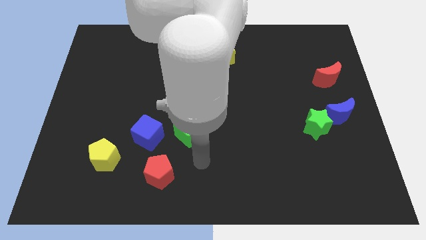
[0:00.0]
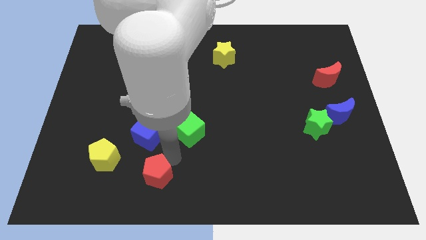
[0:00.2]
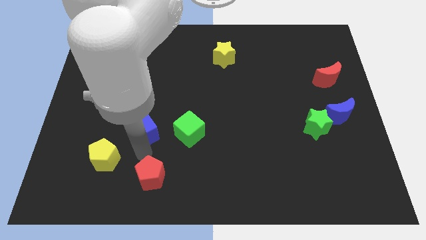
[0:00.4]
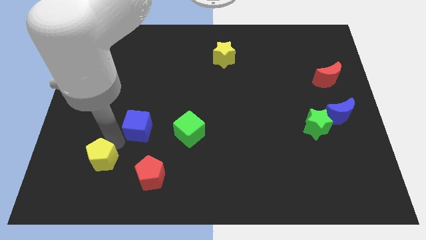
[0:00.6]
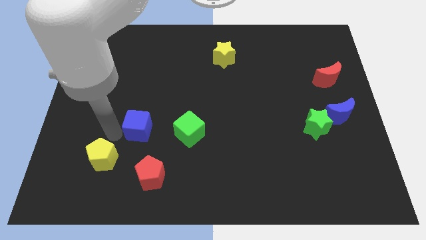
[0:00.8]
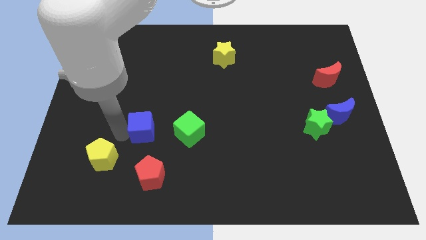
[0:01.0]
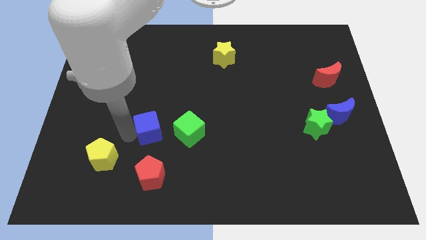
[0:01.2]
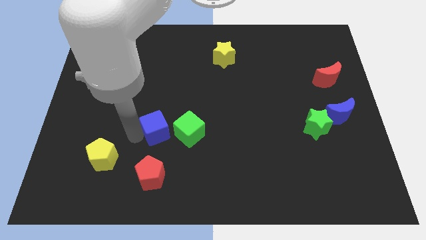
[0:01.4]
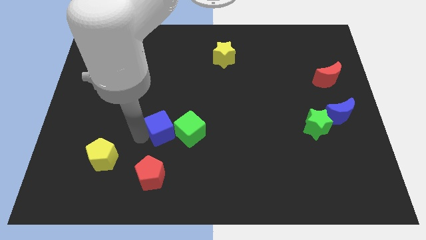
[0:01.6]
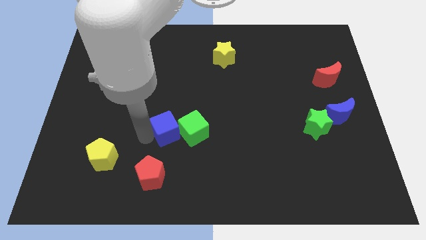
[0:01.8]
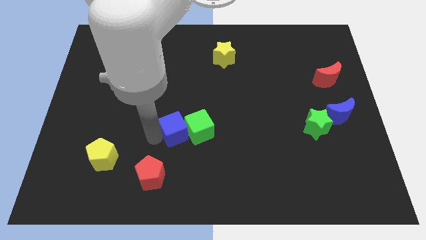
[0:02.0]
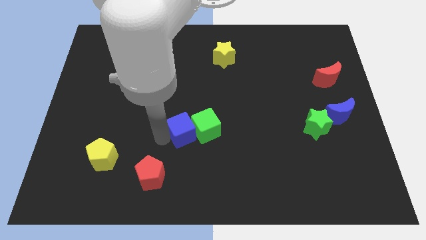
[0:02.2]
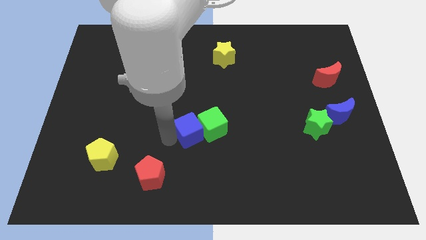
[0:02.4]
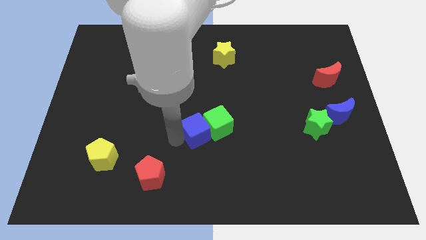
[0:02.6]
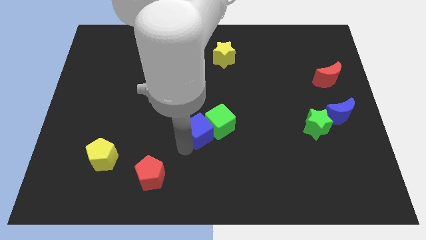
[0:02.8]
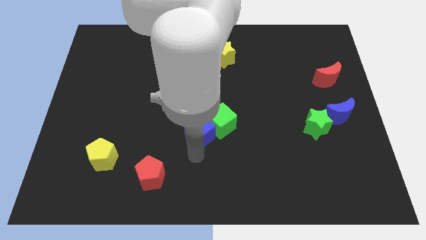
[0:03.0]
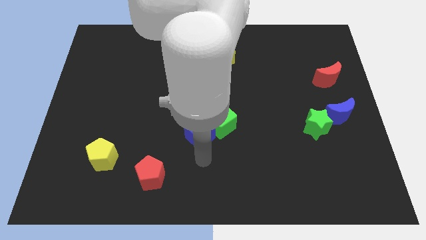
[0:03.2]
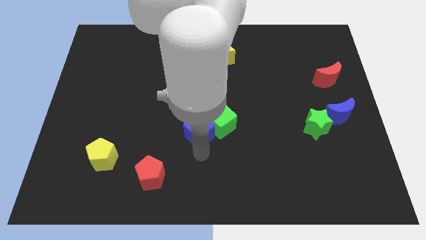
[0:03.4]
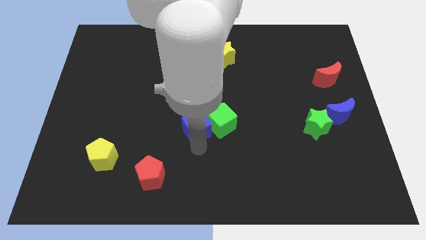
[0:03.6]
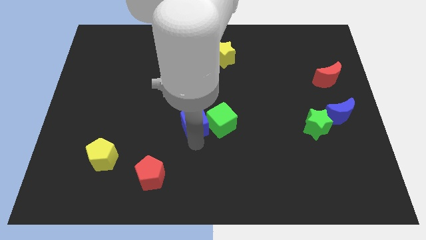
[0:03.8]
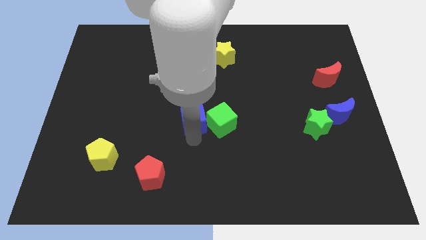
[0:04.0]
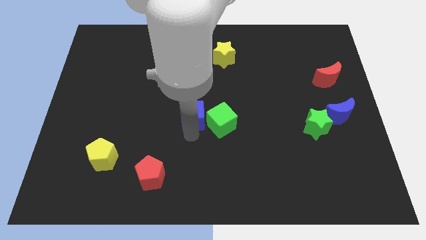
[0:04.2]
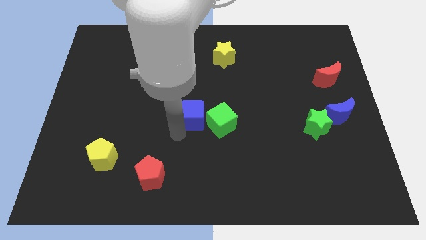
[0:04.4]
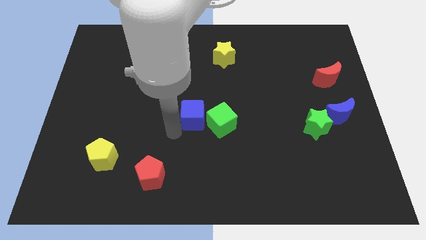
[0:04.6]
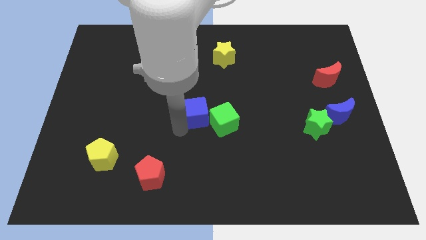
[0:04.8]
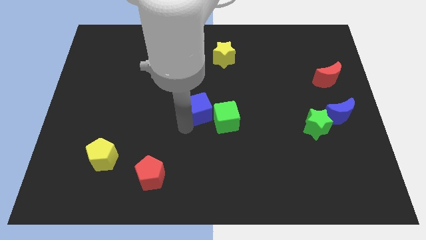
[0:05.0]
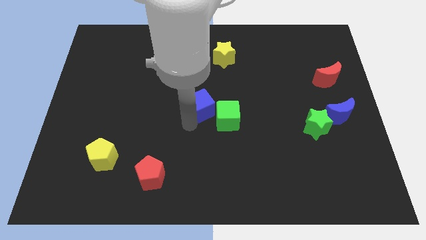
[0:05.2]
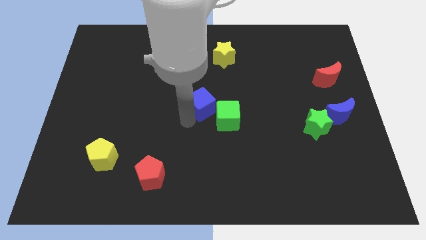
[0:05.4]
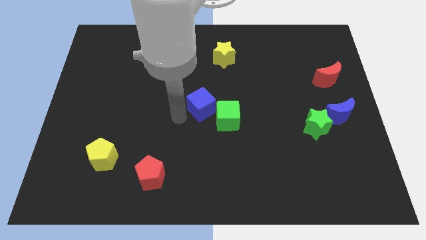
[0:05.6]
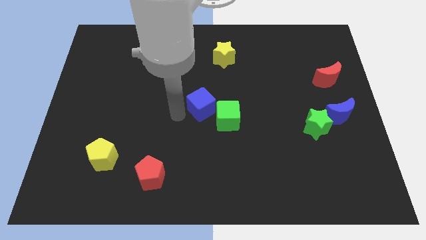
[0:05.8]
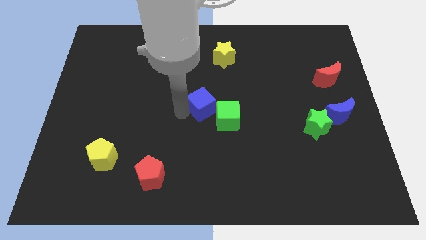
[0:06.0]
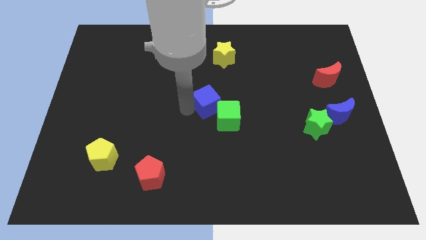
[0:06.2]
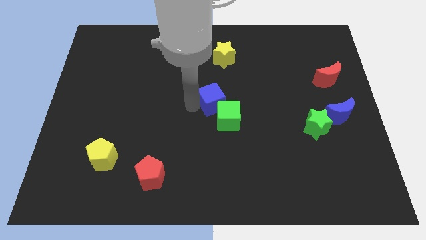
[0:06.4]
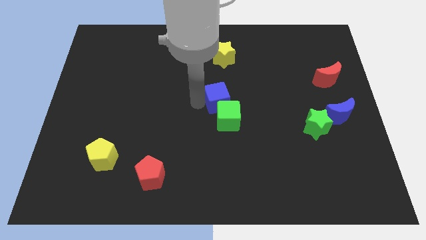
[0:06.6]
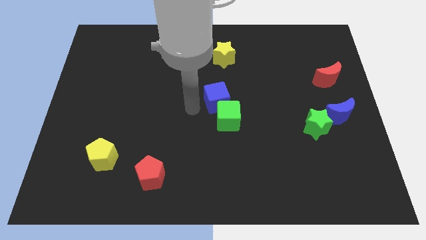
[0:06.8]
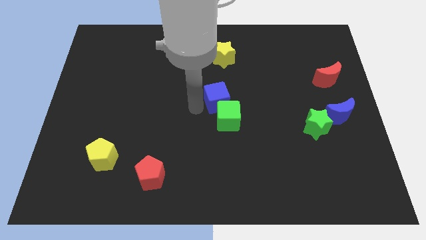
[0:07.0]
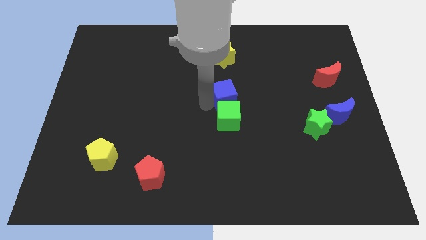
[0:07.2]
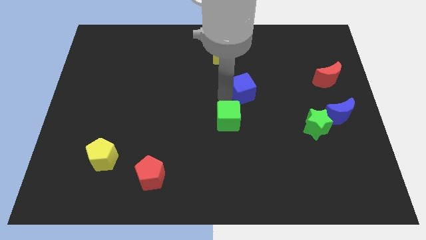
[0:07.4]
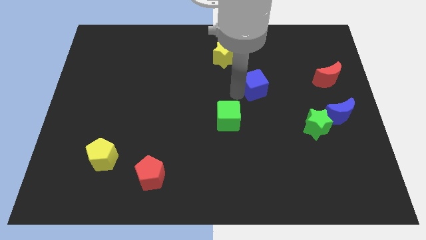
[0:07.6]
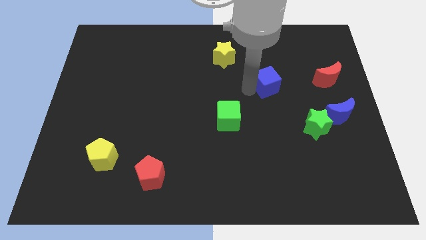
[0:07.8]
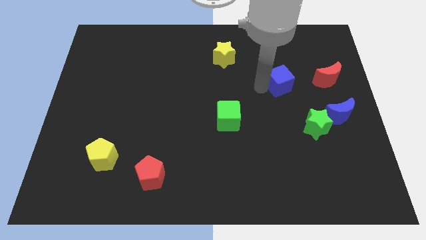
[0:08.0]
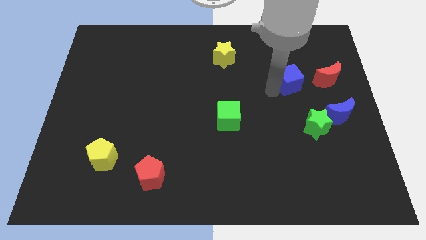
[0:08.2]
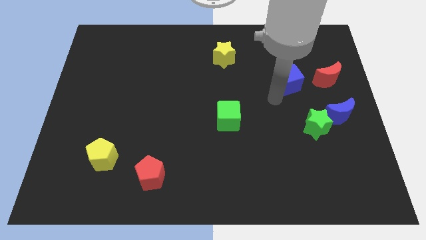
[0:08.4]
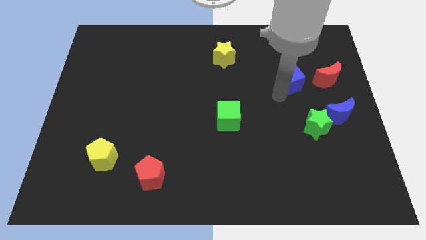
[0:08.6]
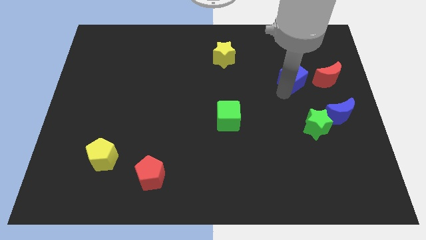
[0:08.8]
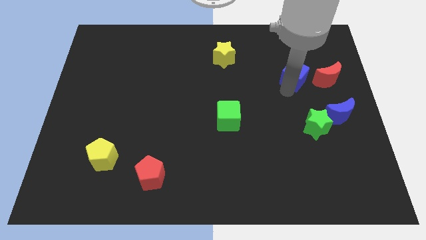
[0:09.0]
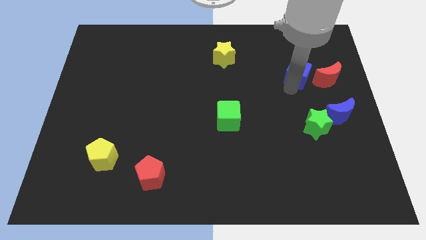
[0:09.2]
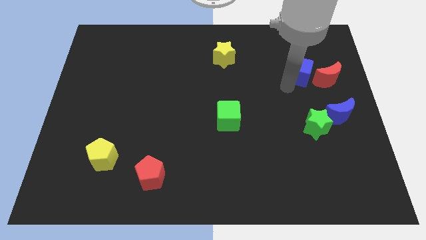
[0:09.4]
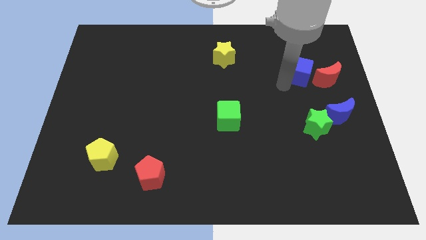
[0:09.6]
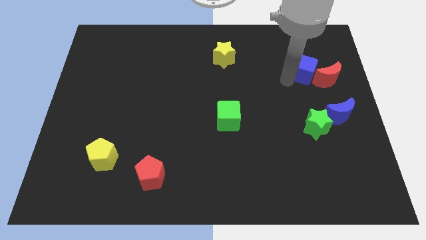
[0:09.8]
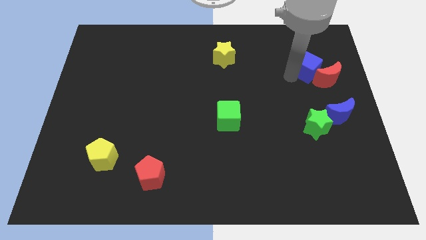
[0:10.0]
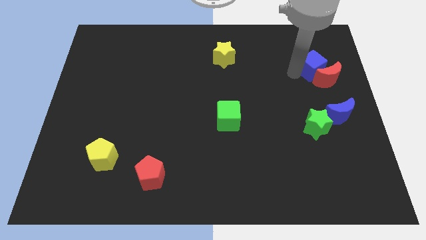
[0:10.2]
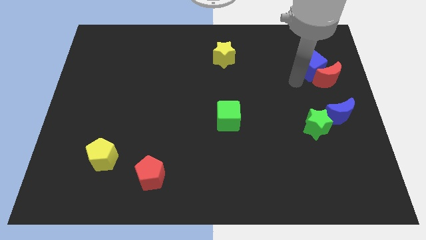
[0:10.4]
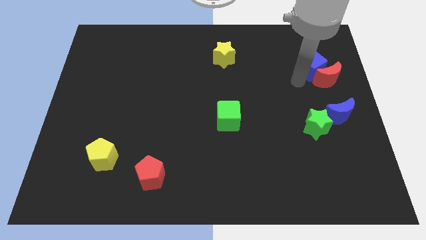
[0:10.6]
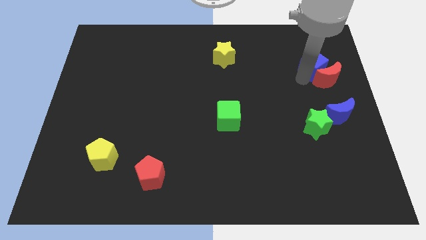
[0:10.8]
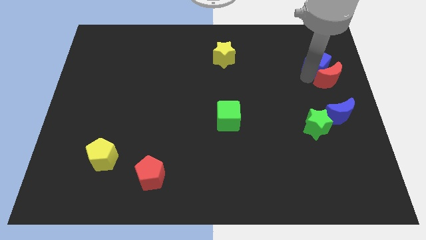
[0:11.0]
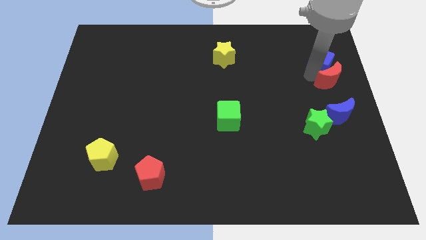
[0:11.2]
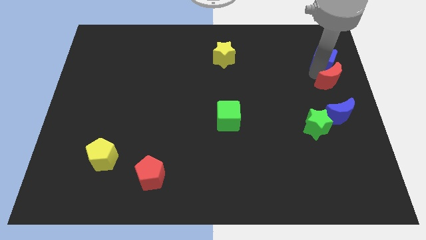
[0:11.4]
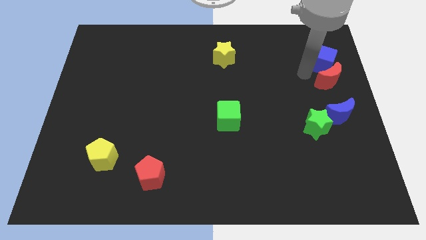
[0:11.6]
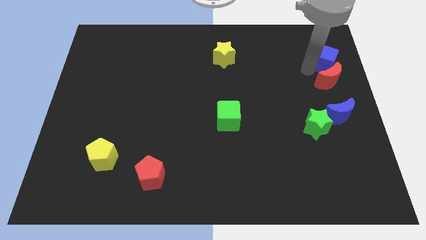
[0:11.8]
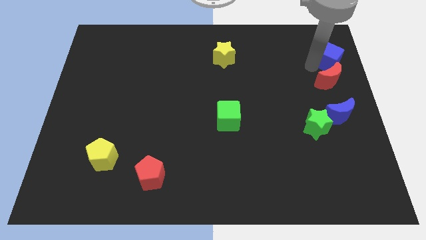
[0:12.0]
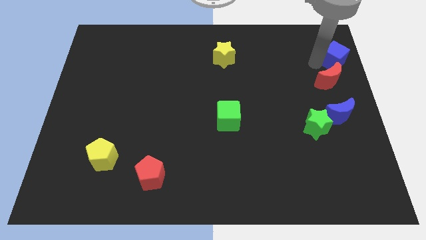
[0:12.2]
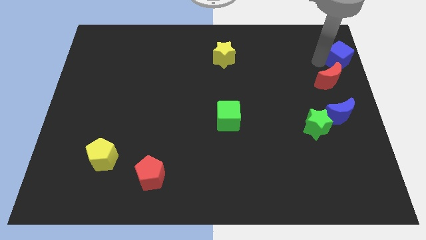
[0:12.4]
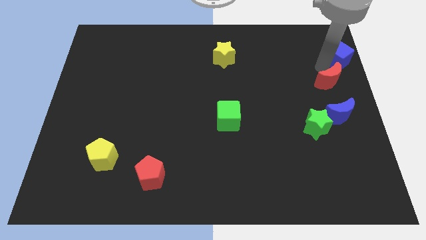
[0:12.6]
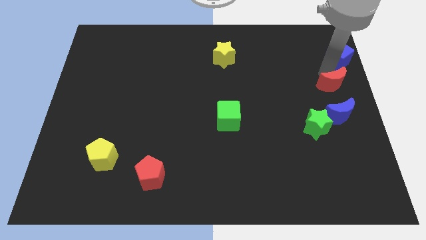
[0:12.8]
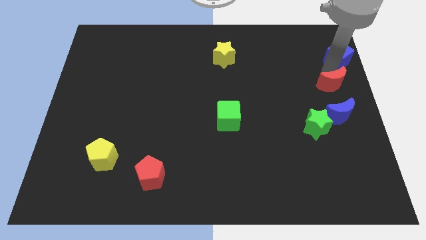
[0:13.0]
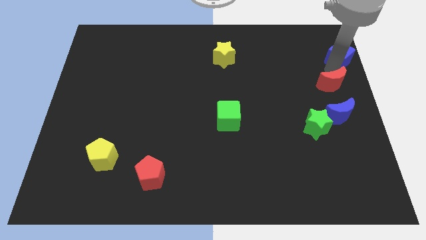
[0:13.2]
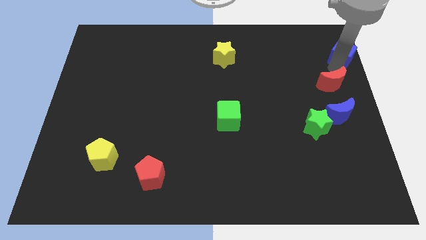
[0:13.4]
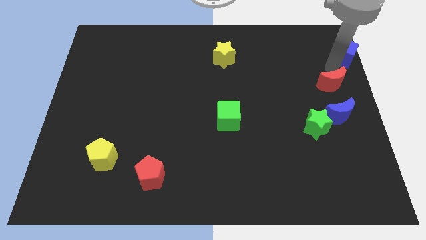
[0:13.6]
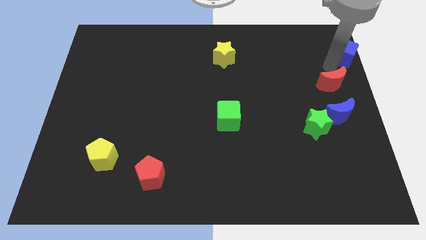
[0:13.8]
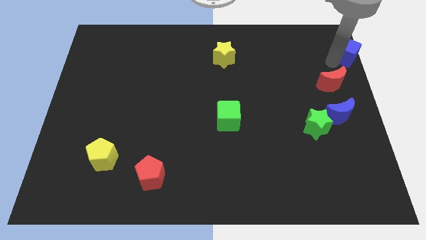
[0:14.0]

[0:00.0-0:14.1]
slide the blue cube to the top right of the board

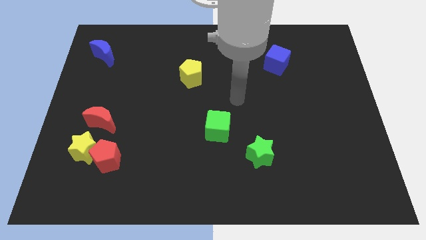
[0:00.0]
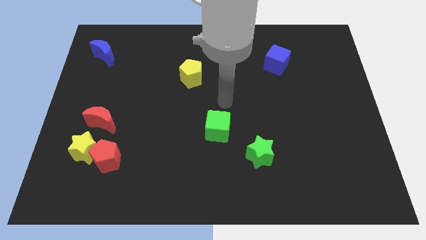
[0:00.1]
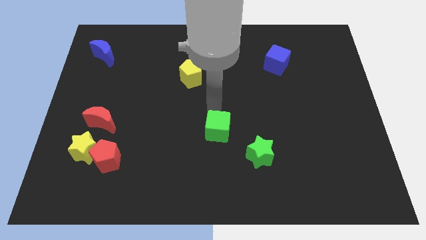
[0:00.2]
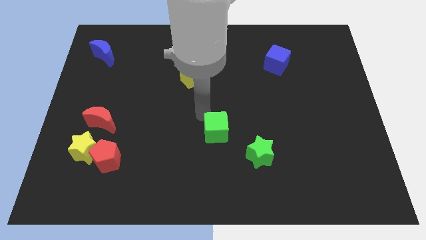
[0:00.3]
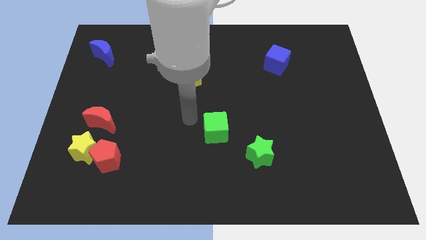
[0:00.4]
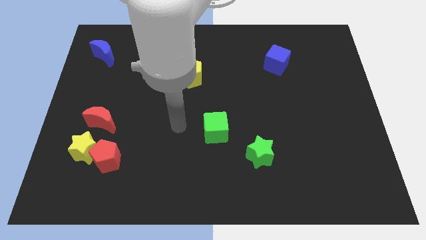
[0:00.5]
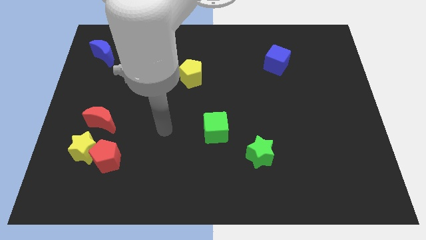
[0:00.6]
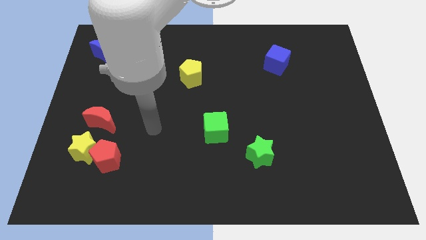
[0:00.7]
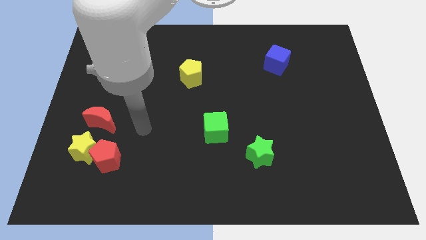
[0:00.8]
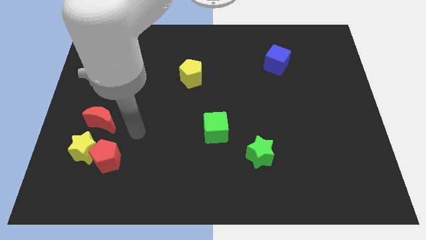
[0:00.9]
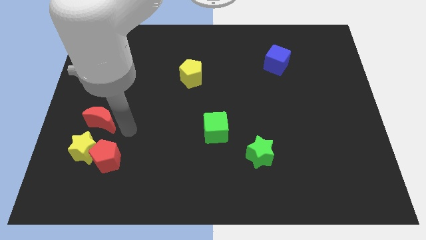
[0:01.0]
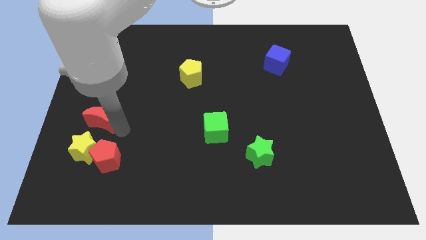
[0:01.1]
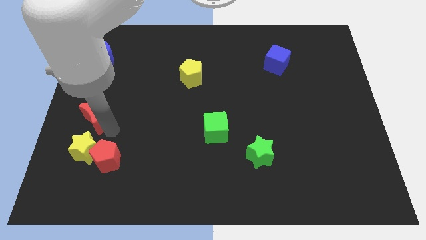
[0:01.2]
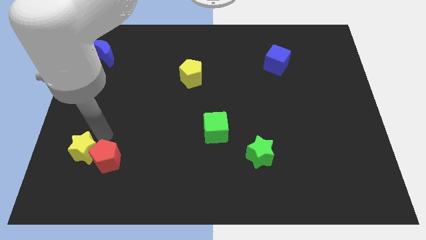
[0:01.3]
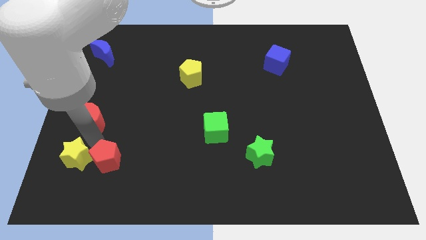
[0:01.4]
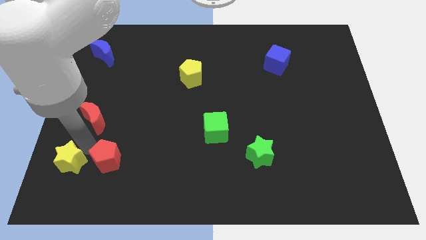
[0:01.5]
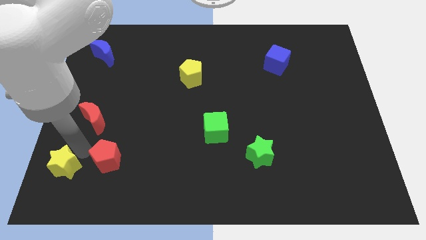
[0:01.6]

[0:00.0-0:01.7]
move the yellow star to the bottom left corner
